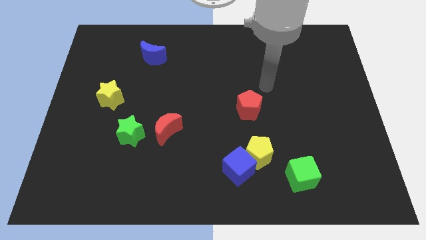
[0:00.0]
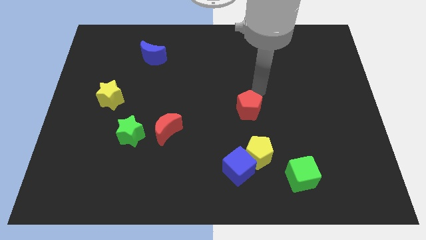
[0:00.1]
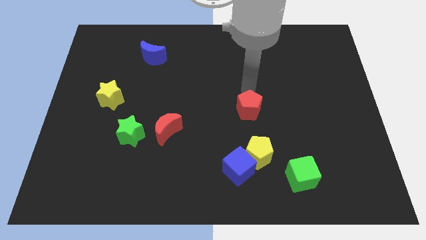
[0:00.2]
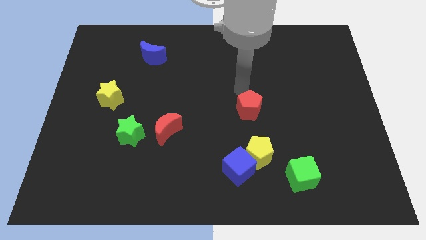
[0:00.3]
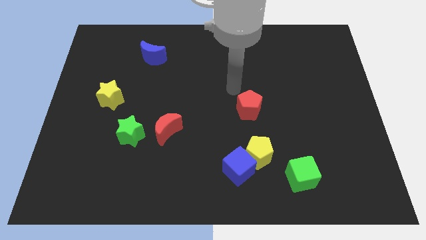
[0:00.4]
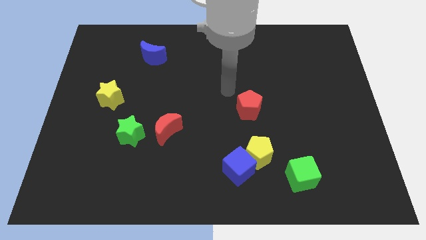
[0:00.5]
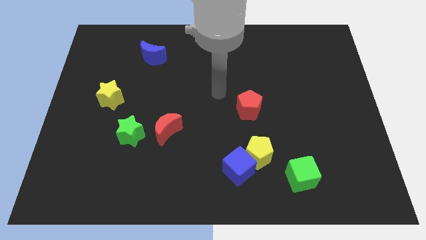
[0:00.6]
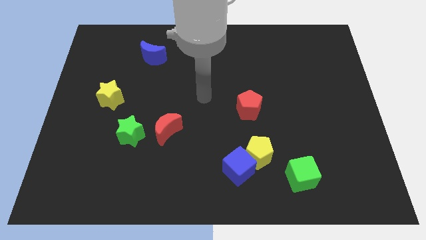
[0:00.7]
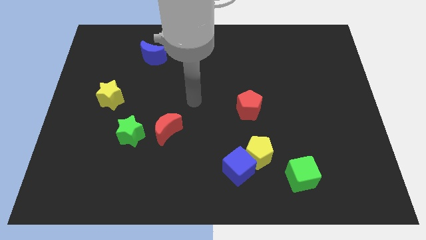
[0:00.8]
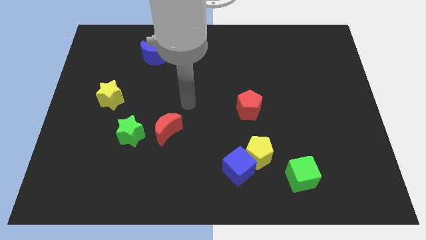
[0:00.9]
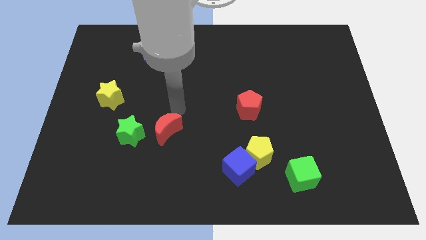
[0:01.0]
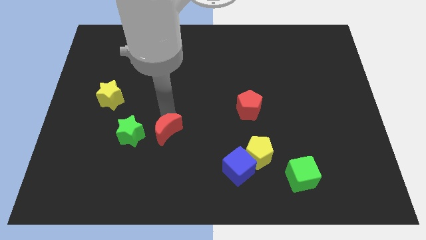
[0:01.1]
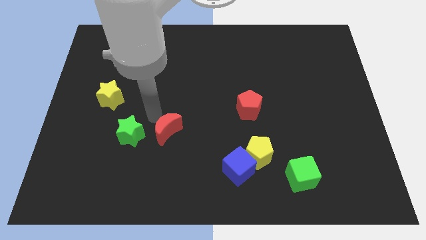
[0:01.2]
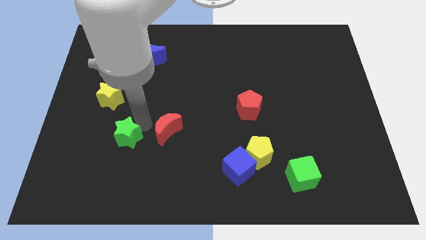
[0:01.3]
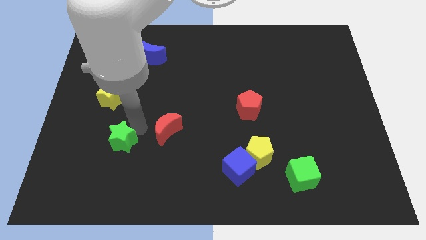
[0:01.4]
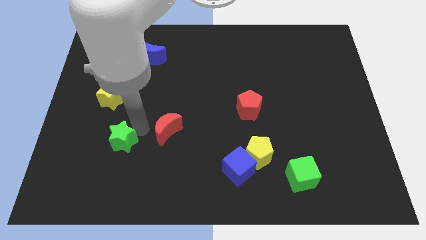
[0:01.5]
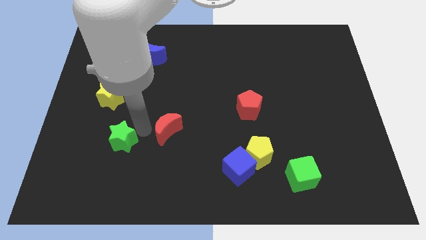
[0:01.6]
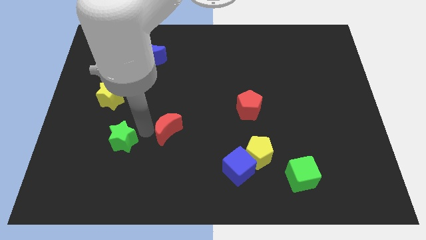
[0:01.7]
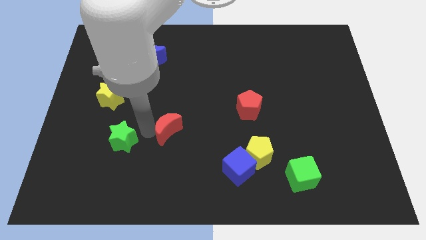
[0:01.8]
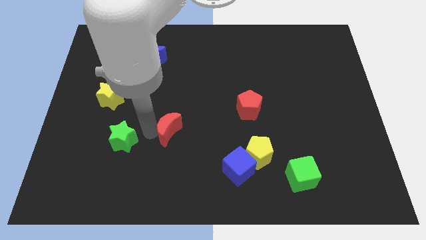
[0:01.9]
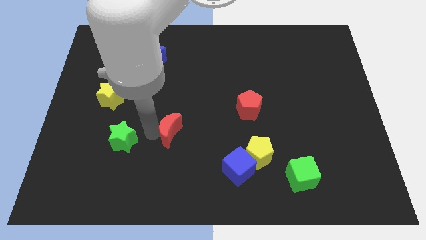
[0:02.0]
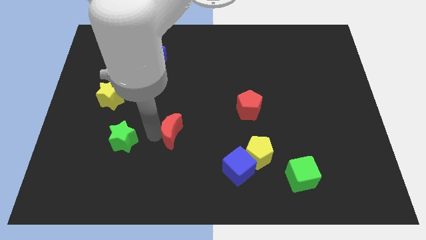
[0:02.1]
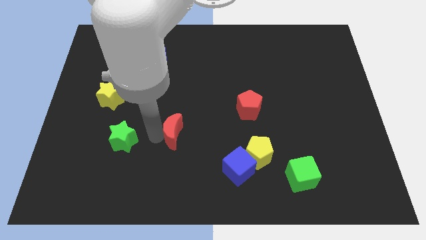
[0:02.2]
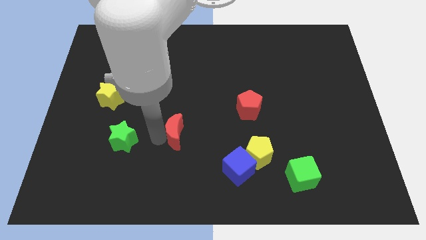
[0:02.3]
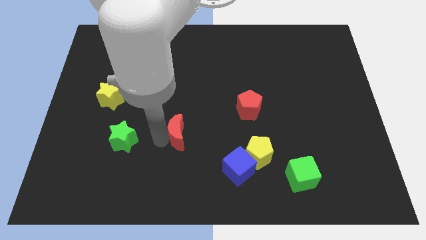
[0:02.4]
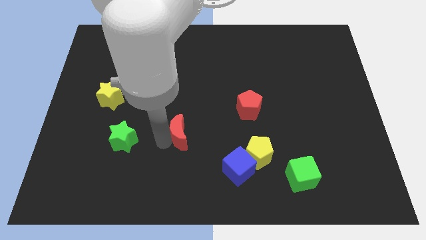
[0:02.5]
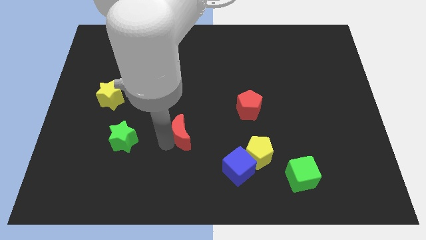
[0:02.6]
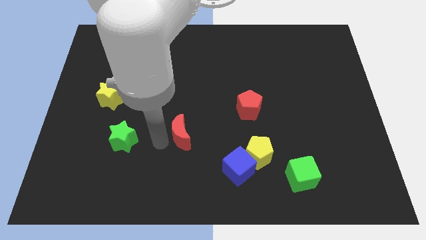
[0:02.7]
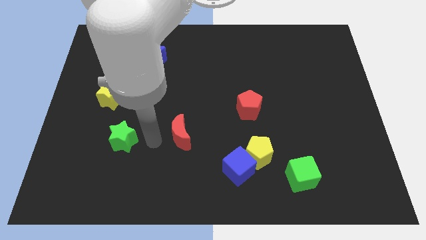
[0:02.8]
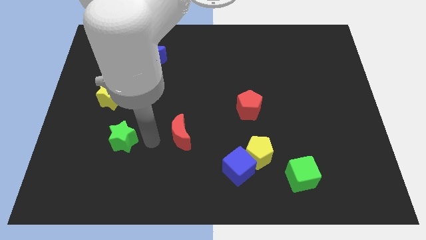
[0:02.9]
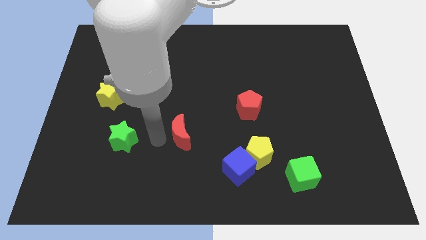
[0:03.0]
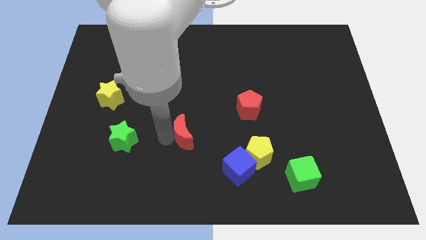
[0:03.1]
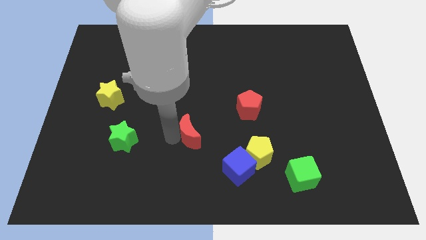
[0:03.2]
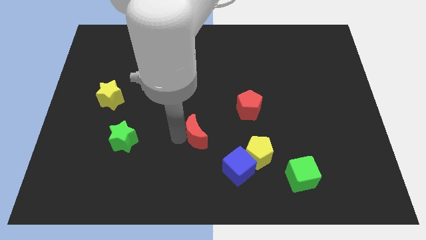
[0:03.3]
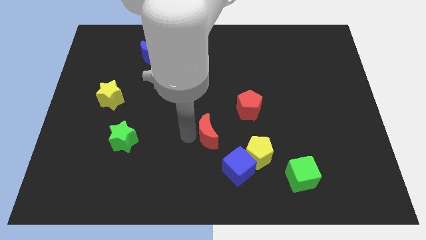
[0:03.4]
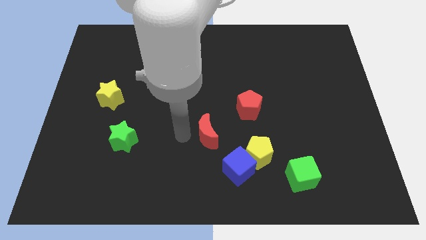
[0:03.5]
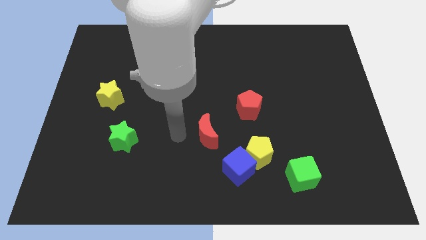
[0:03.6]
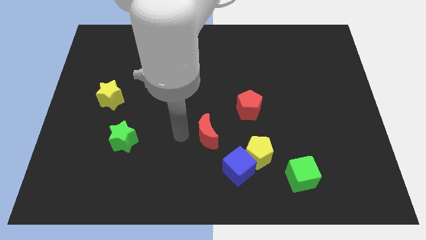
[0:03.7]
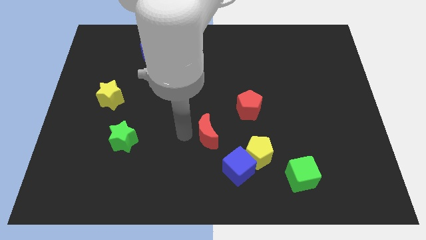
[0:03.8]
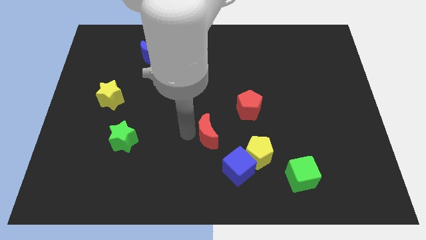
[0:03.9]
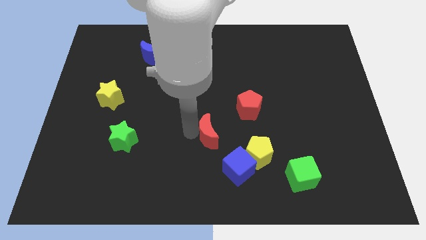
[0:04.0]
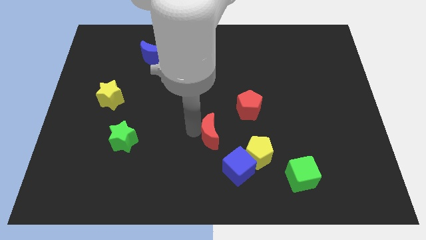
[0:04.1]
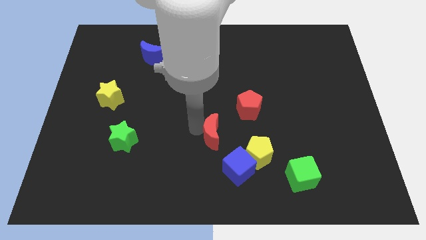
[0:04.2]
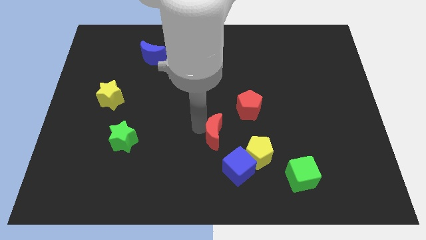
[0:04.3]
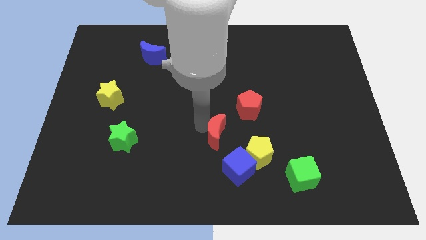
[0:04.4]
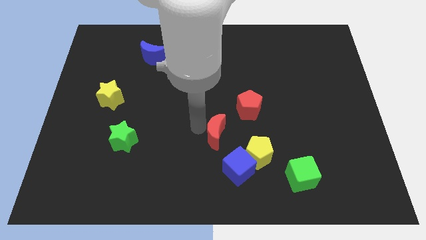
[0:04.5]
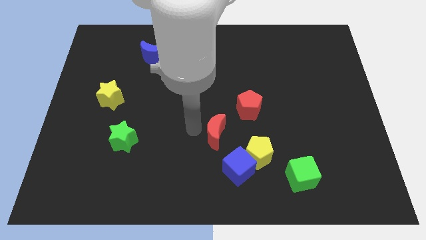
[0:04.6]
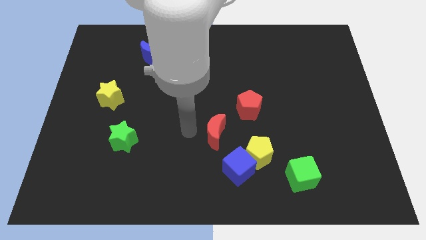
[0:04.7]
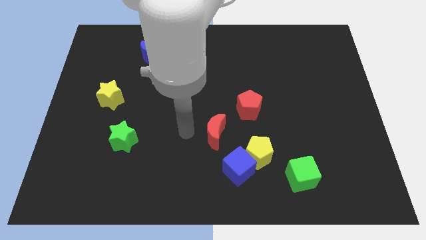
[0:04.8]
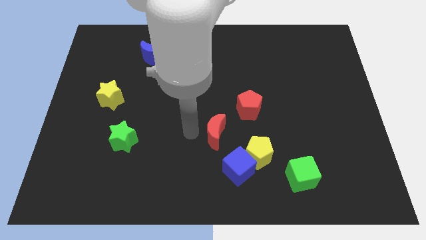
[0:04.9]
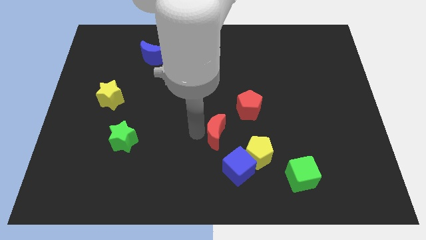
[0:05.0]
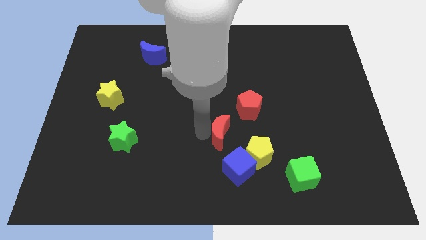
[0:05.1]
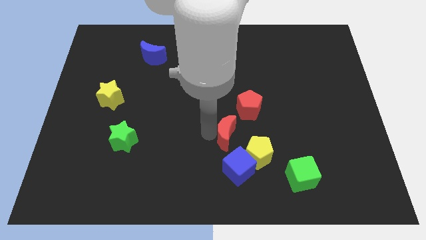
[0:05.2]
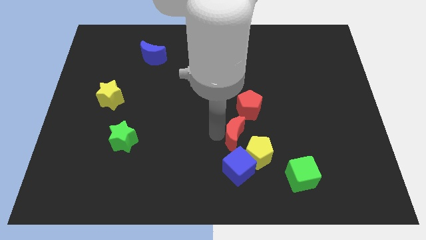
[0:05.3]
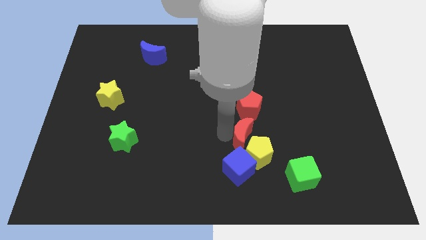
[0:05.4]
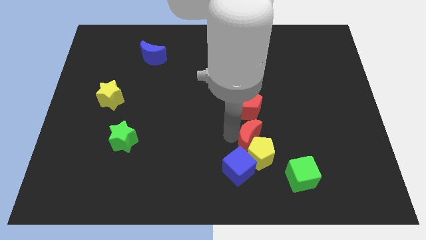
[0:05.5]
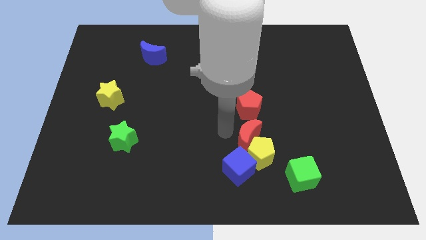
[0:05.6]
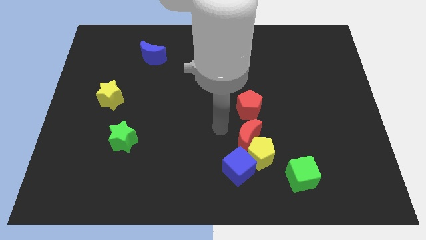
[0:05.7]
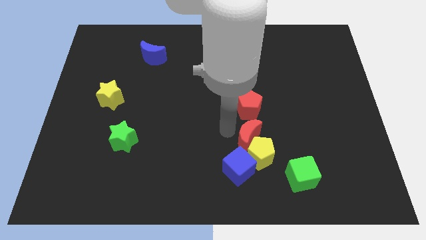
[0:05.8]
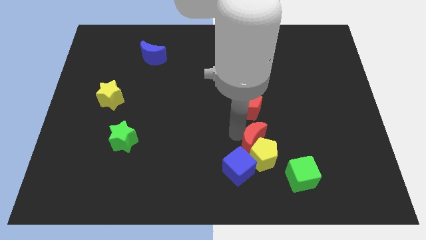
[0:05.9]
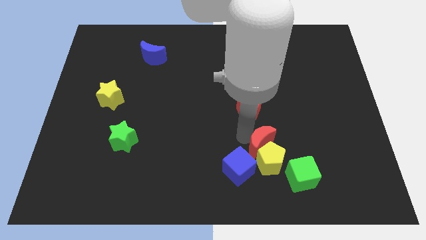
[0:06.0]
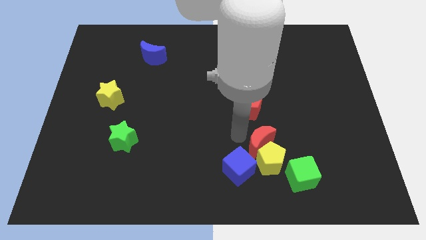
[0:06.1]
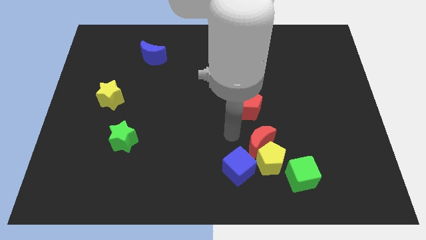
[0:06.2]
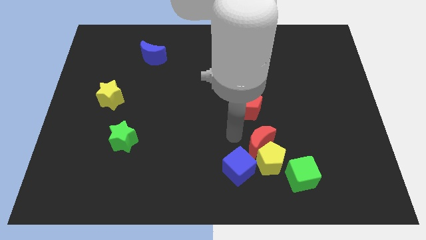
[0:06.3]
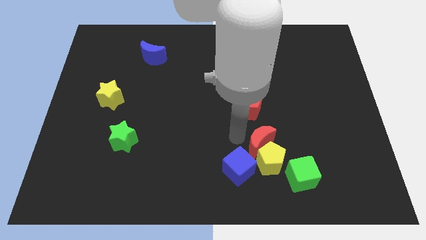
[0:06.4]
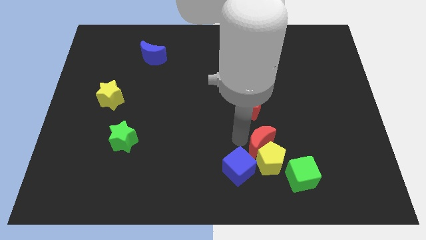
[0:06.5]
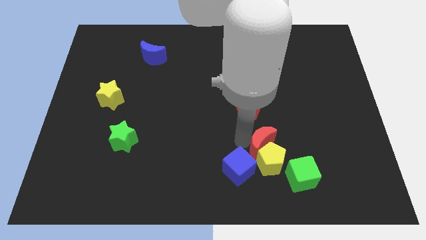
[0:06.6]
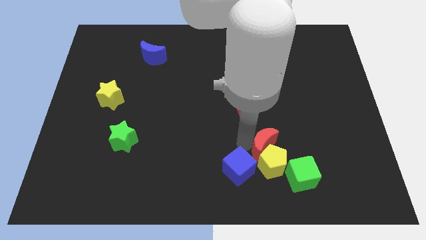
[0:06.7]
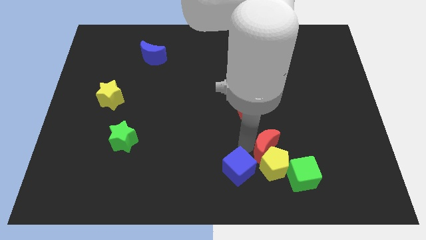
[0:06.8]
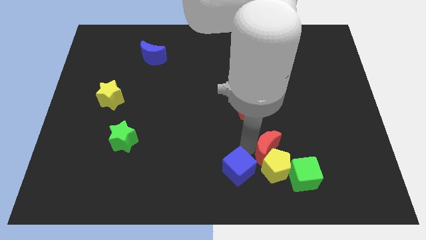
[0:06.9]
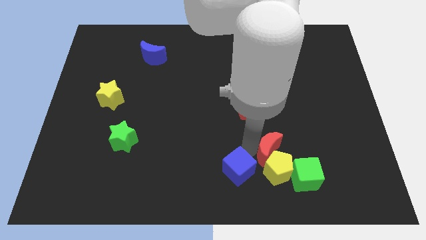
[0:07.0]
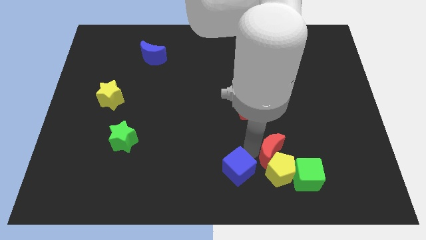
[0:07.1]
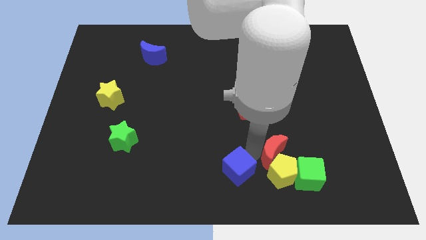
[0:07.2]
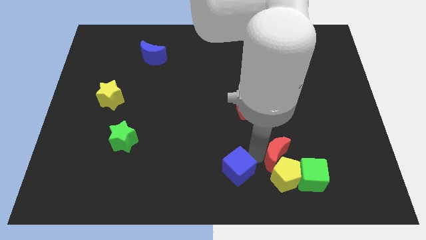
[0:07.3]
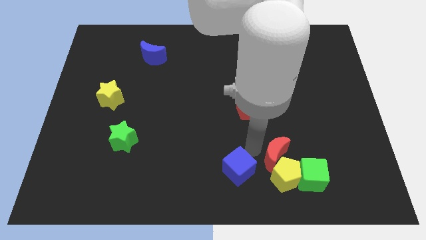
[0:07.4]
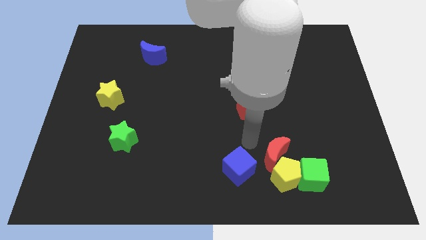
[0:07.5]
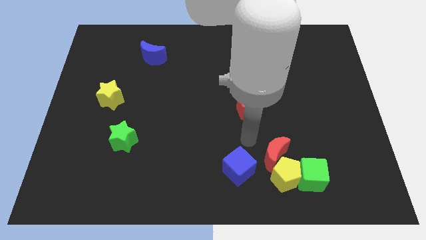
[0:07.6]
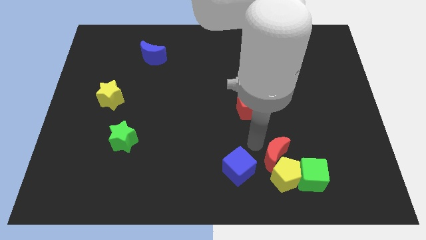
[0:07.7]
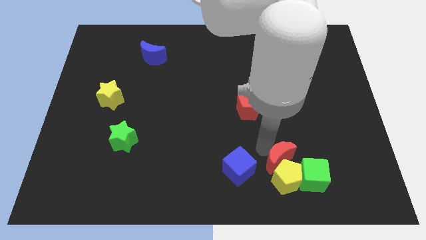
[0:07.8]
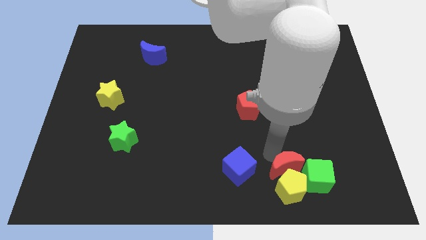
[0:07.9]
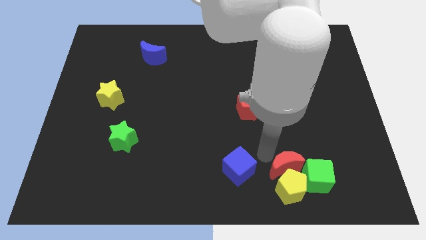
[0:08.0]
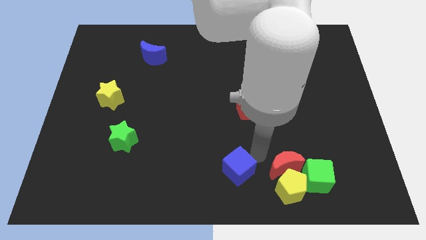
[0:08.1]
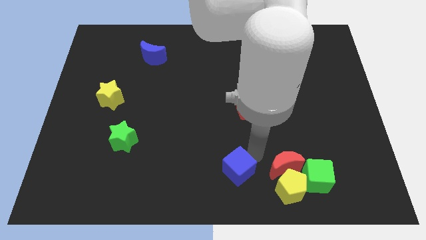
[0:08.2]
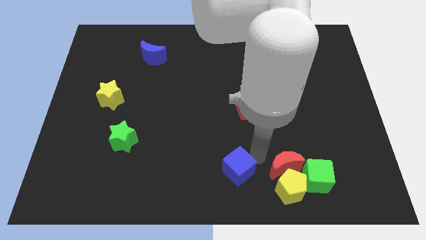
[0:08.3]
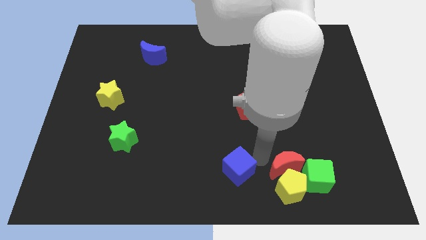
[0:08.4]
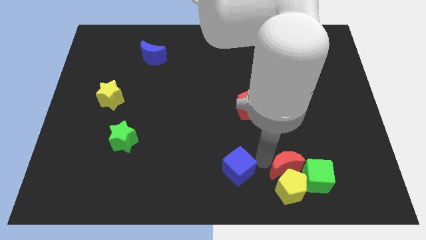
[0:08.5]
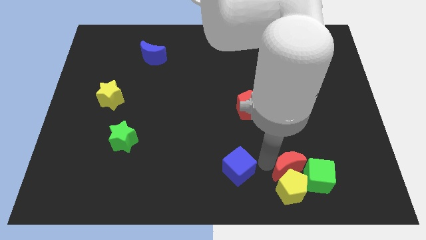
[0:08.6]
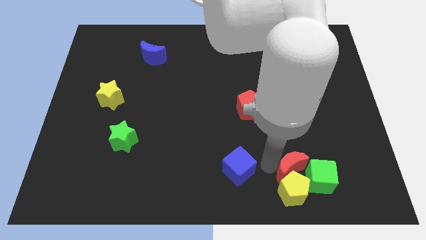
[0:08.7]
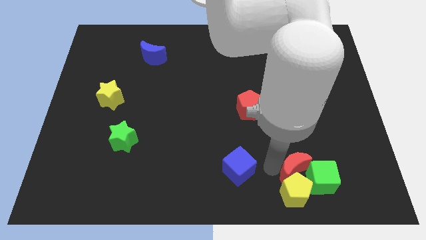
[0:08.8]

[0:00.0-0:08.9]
push the red moon towards the green cube
